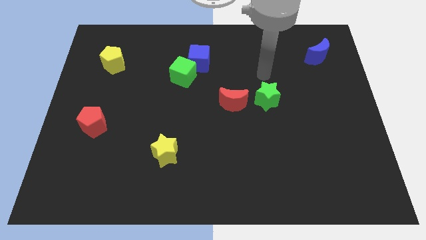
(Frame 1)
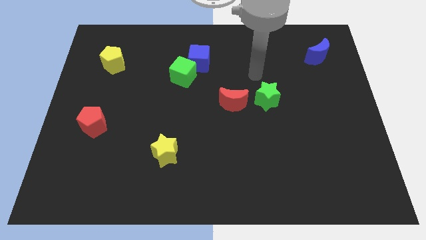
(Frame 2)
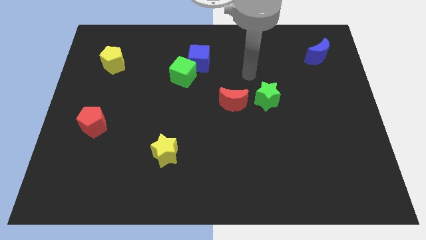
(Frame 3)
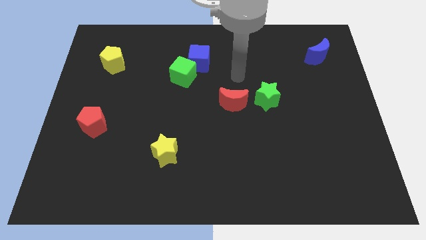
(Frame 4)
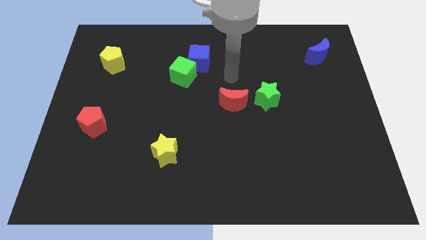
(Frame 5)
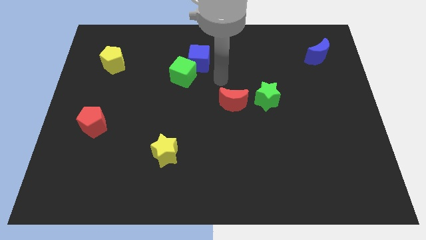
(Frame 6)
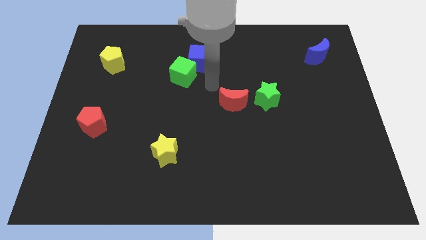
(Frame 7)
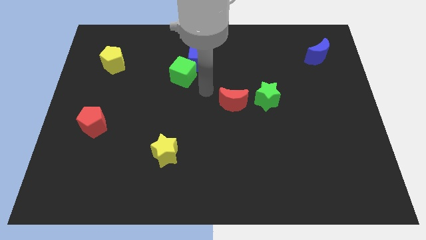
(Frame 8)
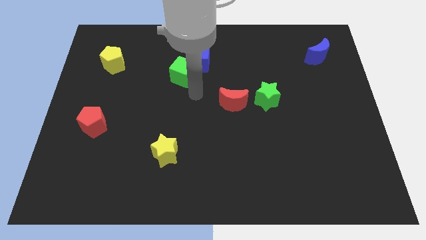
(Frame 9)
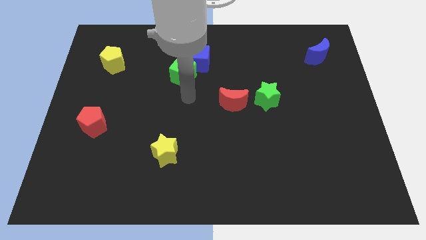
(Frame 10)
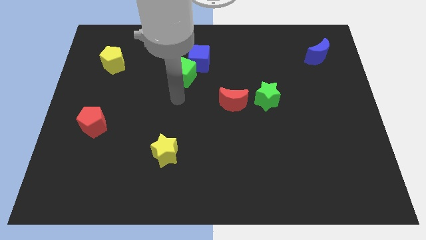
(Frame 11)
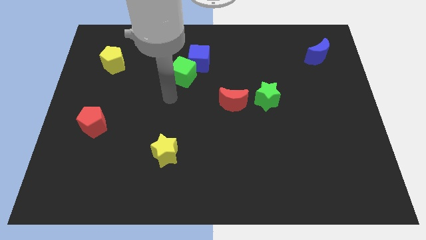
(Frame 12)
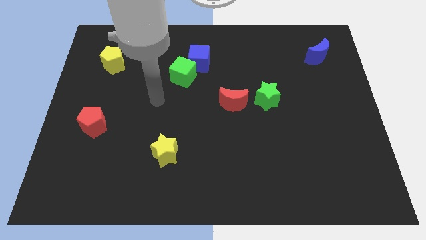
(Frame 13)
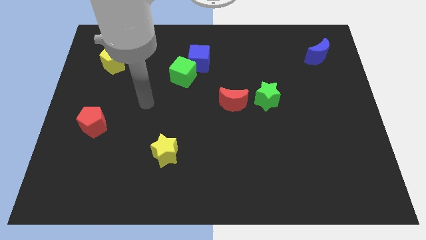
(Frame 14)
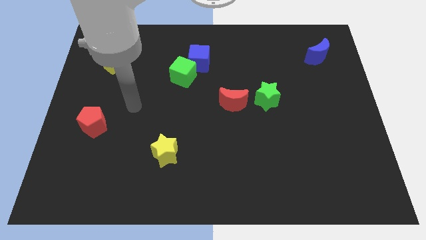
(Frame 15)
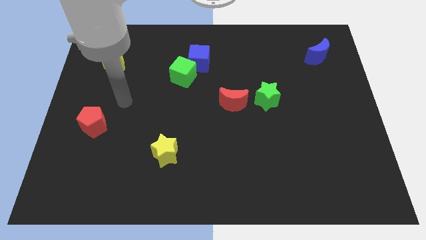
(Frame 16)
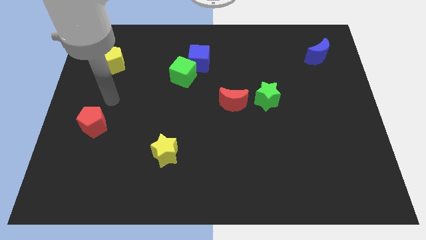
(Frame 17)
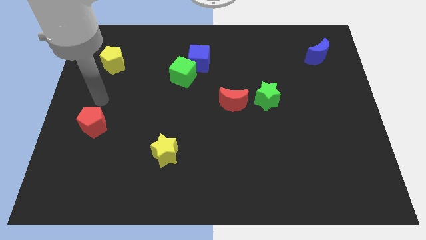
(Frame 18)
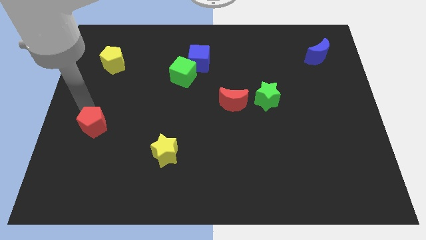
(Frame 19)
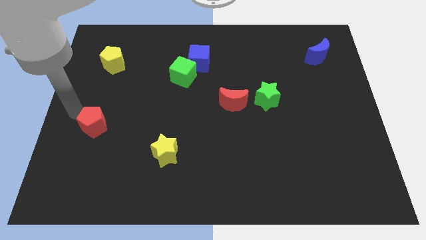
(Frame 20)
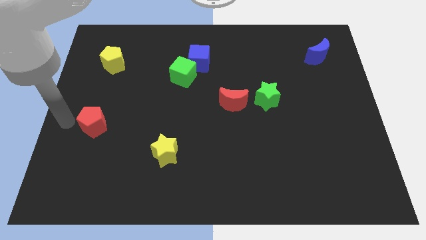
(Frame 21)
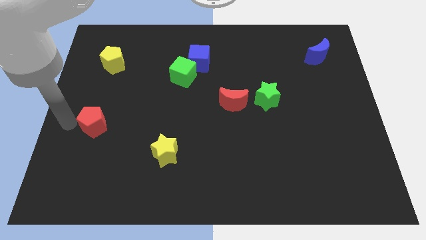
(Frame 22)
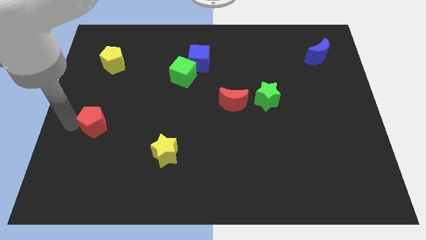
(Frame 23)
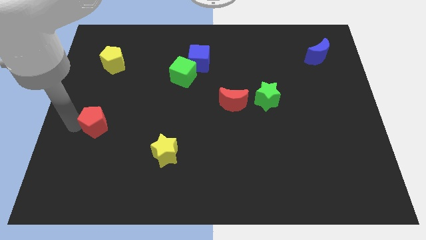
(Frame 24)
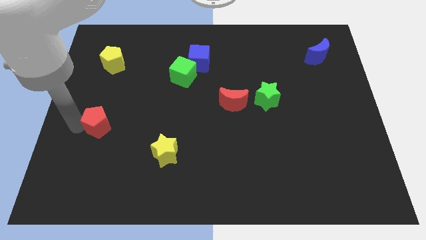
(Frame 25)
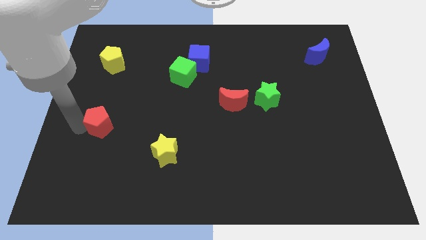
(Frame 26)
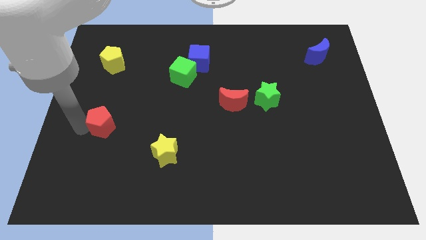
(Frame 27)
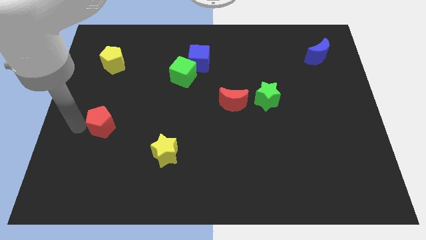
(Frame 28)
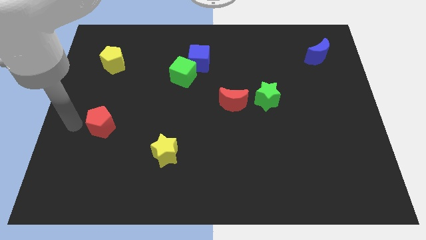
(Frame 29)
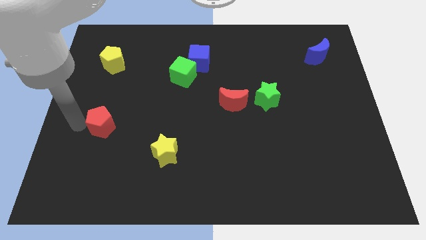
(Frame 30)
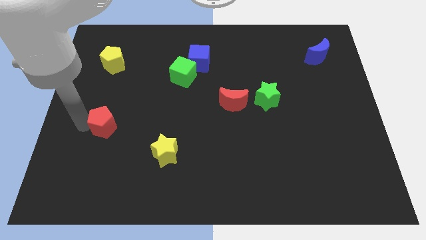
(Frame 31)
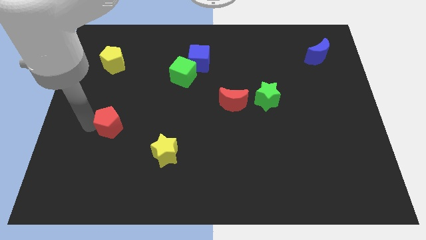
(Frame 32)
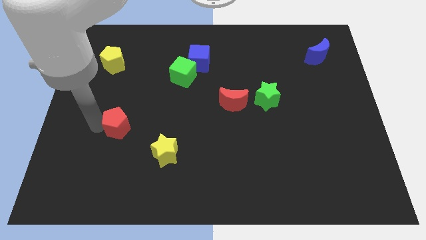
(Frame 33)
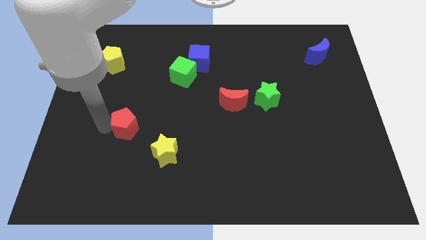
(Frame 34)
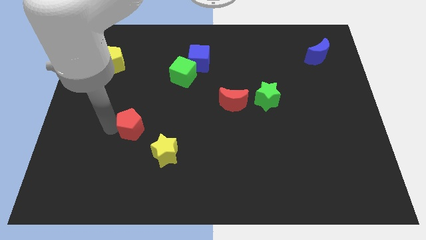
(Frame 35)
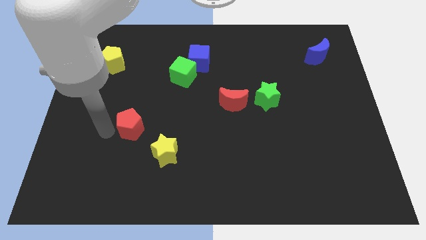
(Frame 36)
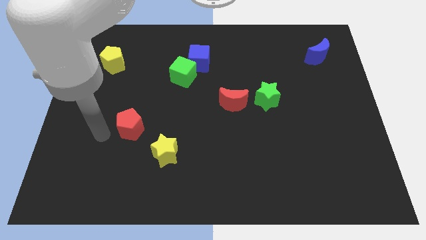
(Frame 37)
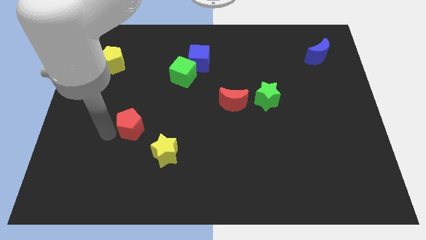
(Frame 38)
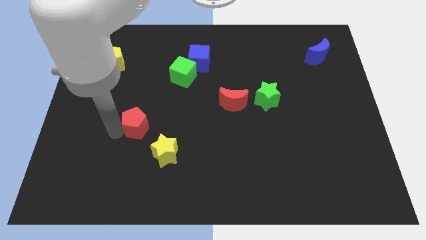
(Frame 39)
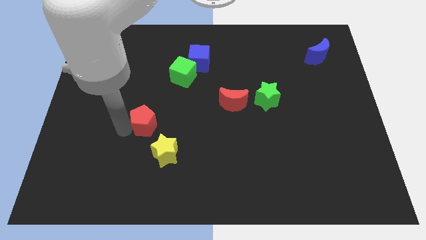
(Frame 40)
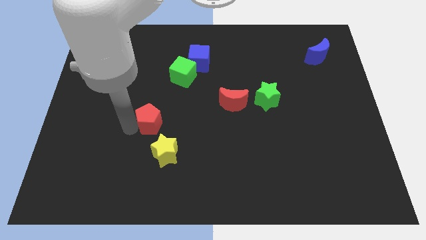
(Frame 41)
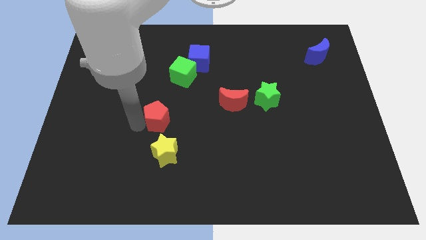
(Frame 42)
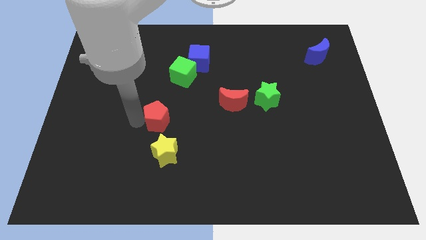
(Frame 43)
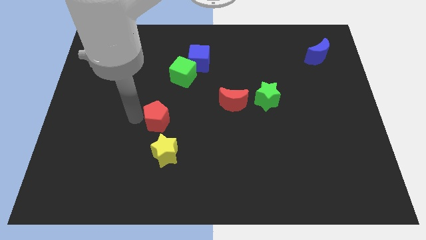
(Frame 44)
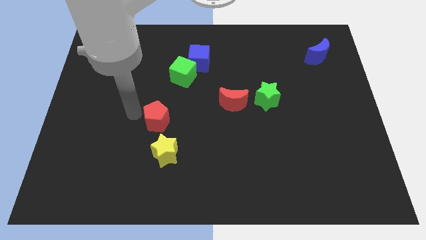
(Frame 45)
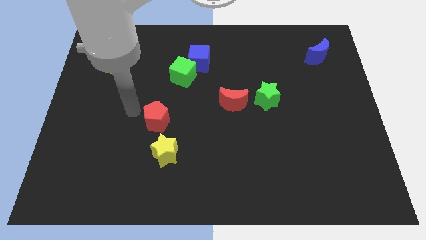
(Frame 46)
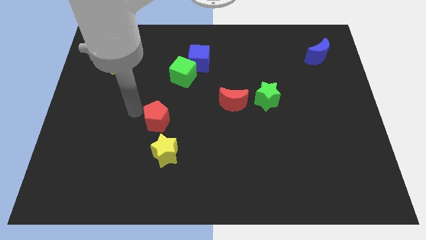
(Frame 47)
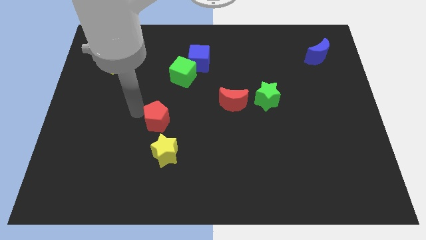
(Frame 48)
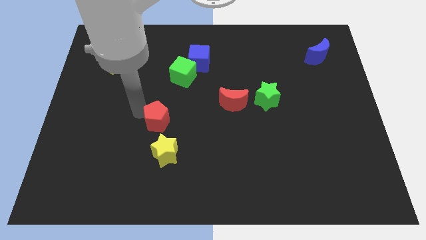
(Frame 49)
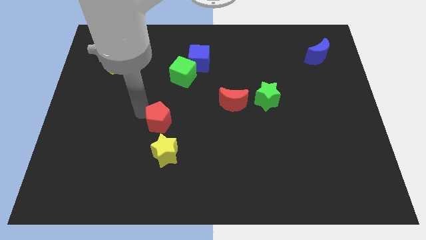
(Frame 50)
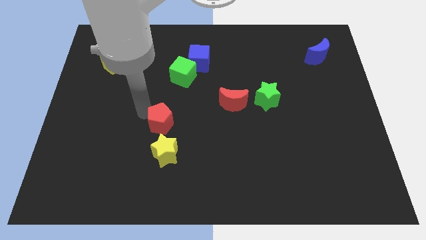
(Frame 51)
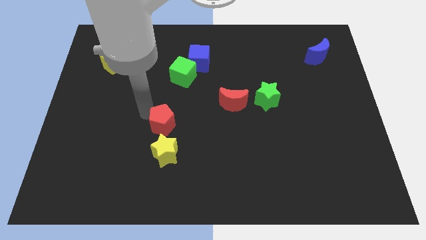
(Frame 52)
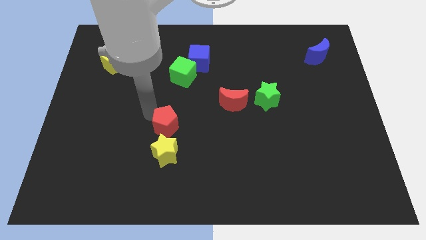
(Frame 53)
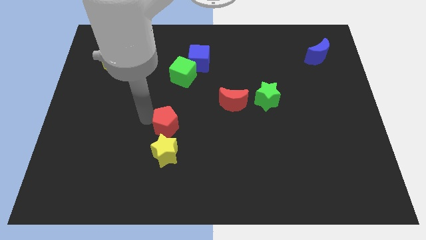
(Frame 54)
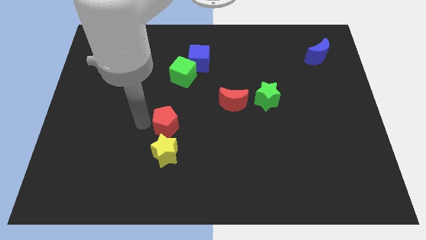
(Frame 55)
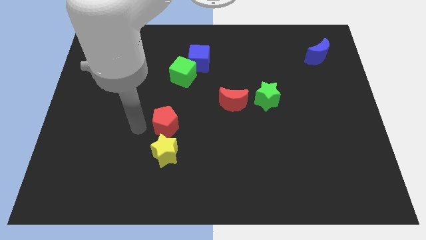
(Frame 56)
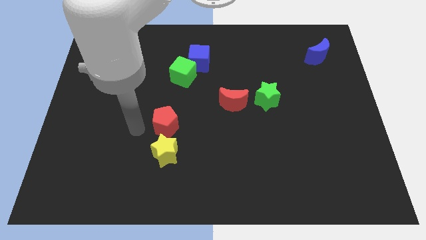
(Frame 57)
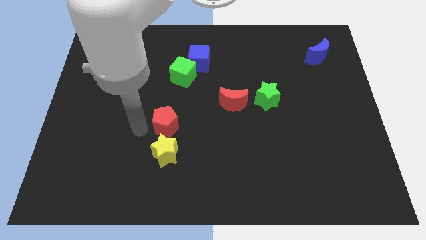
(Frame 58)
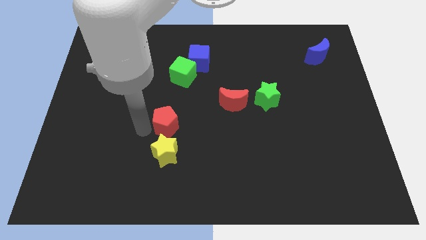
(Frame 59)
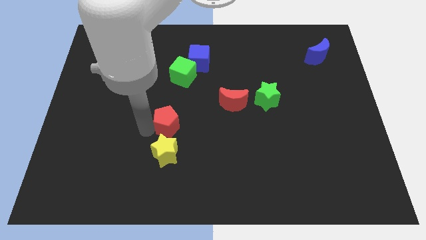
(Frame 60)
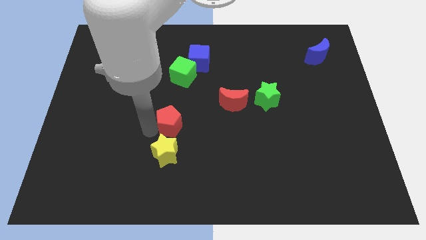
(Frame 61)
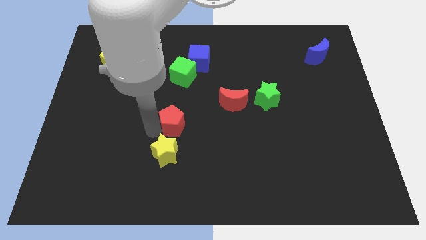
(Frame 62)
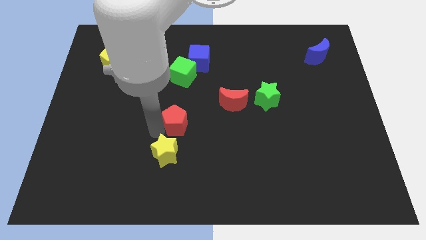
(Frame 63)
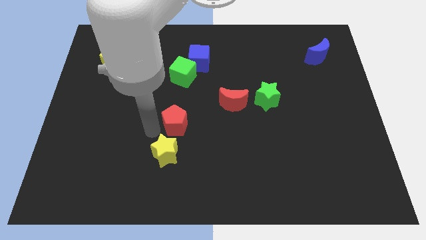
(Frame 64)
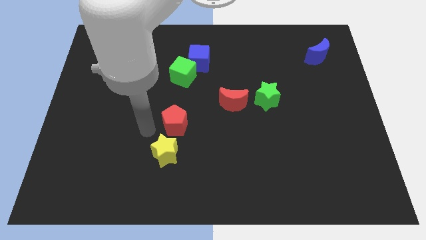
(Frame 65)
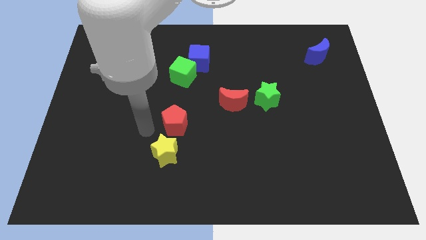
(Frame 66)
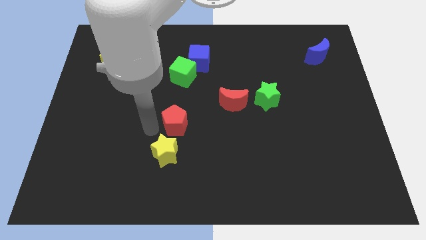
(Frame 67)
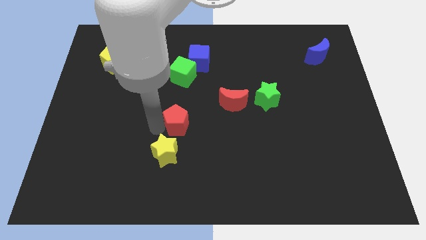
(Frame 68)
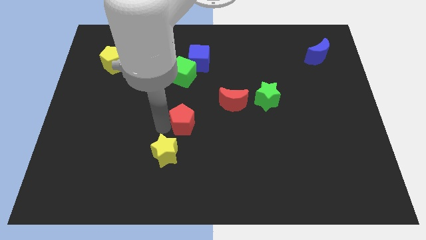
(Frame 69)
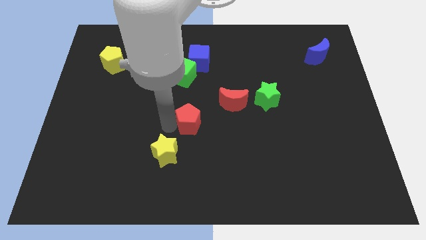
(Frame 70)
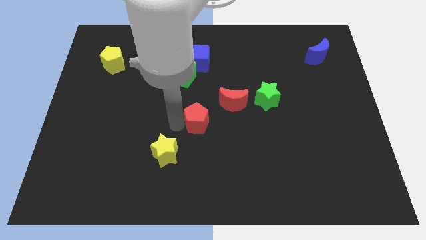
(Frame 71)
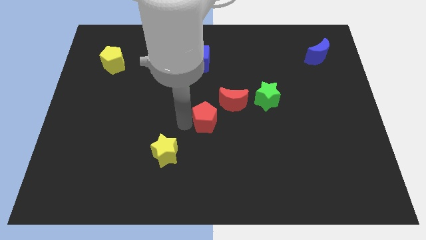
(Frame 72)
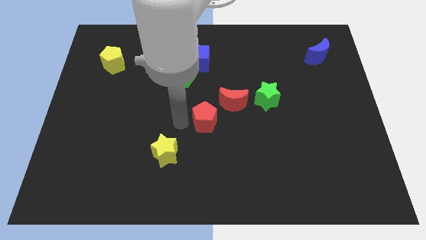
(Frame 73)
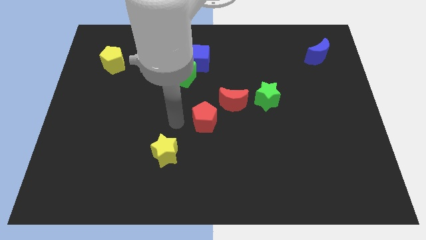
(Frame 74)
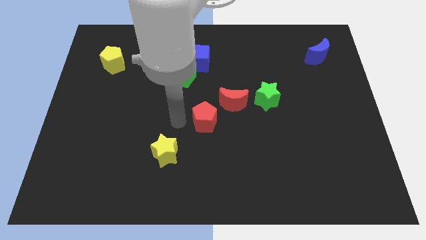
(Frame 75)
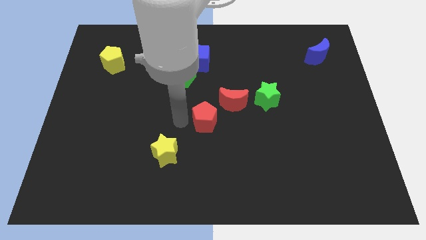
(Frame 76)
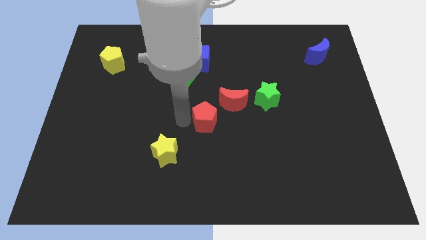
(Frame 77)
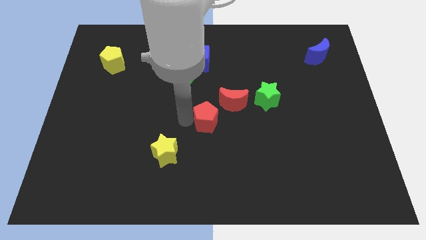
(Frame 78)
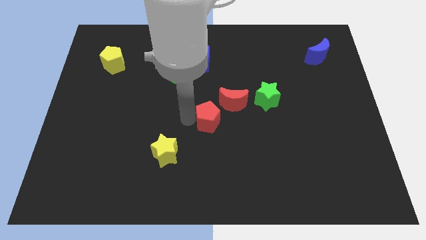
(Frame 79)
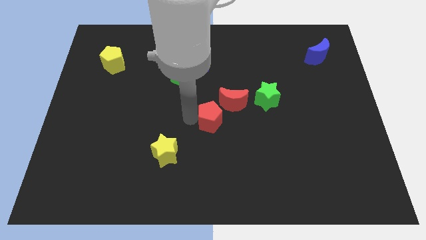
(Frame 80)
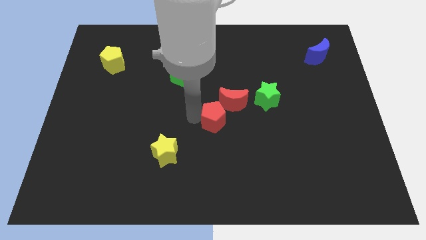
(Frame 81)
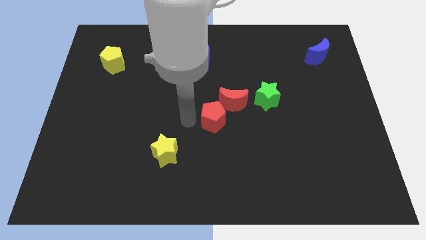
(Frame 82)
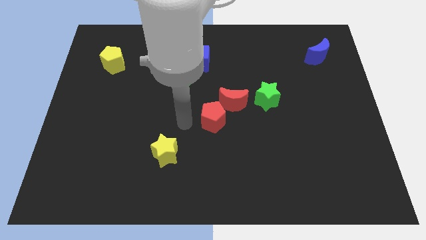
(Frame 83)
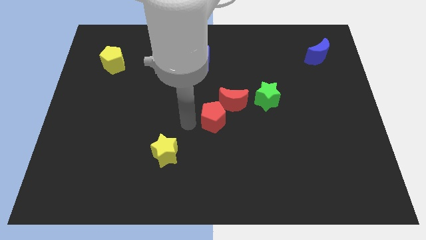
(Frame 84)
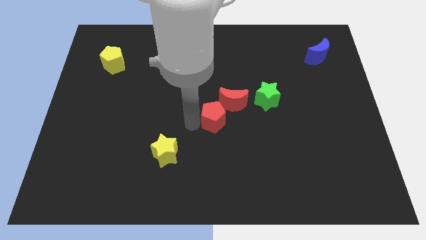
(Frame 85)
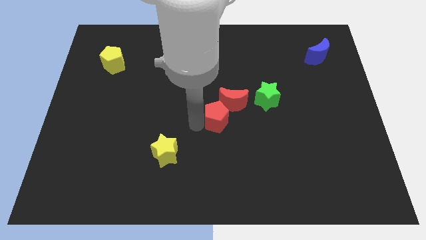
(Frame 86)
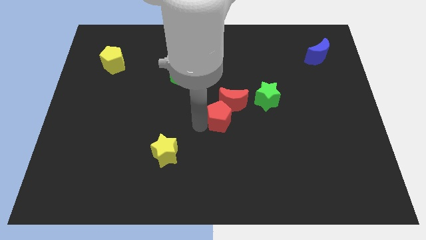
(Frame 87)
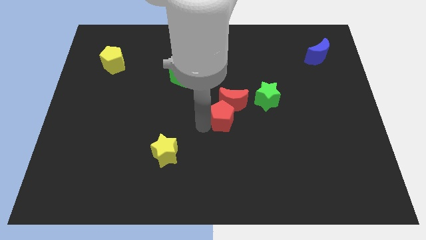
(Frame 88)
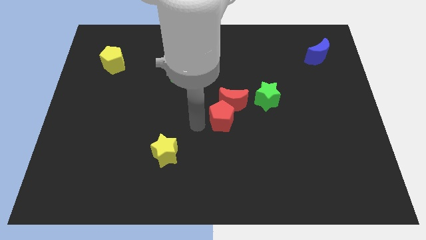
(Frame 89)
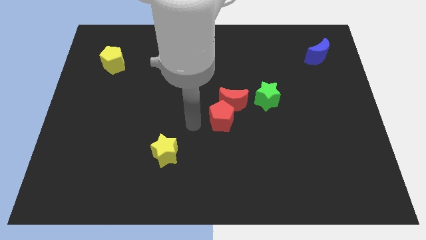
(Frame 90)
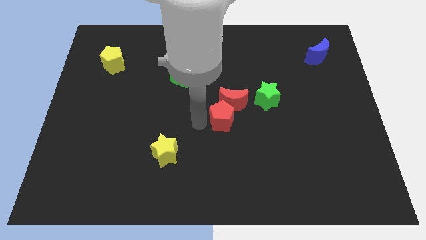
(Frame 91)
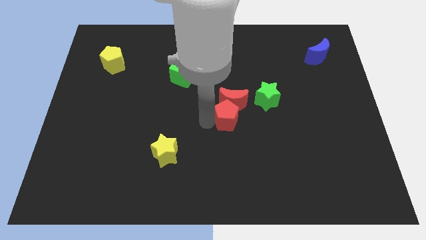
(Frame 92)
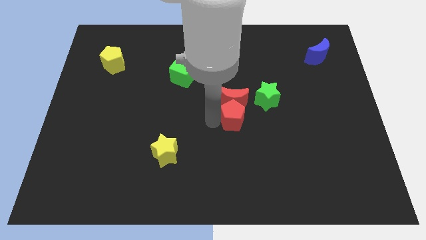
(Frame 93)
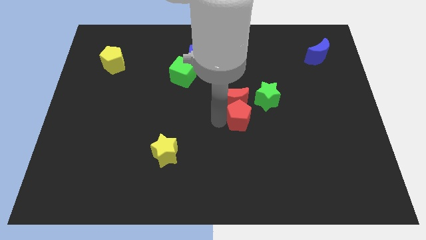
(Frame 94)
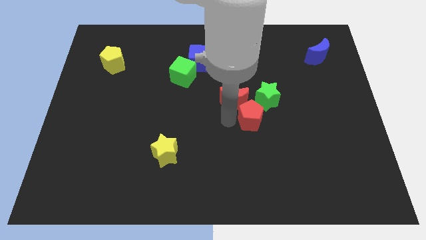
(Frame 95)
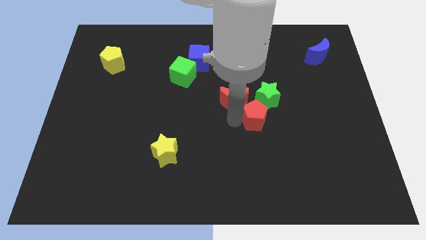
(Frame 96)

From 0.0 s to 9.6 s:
push the red pentagon to the right of the red moon
